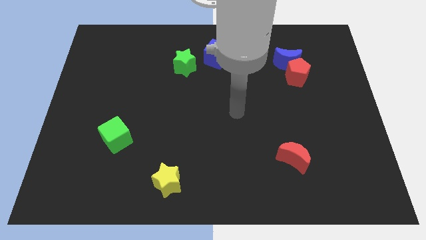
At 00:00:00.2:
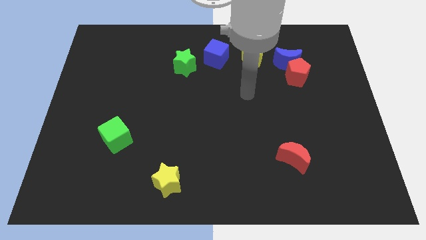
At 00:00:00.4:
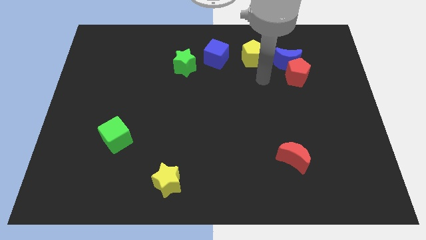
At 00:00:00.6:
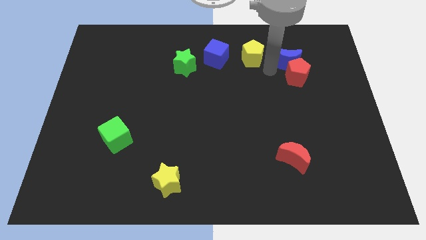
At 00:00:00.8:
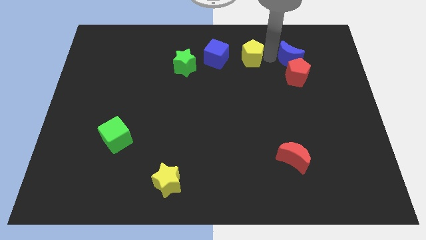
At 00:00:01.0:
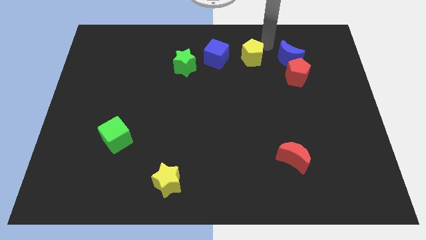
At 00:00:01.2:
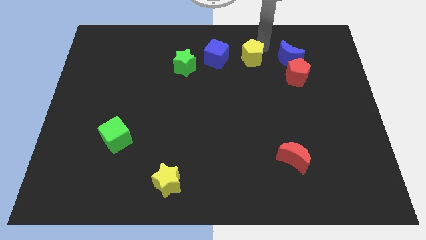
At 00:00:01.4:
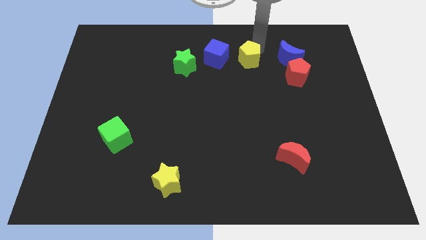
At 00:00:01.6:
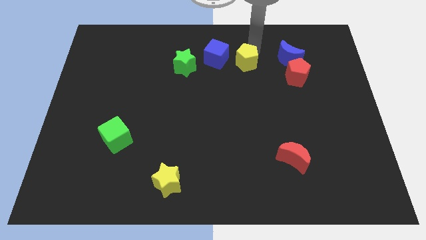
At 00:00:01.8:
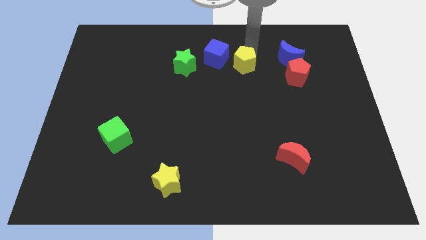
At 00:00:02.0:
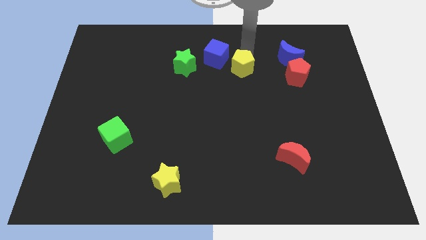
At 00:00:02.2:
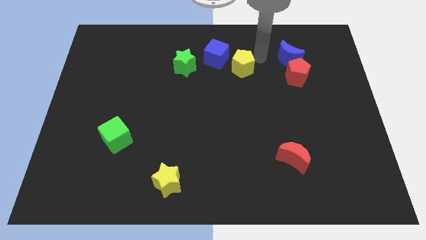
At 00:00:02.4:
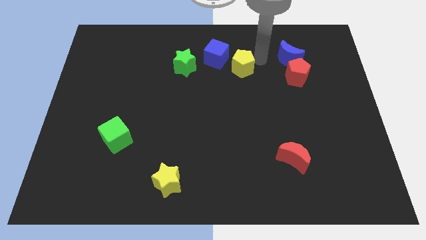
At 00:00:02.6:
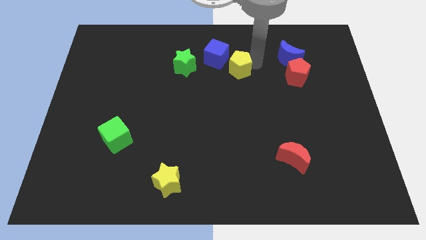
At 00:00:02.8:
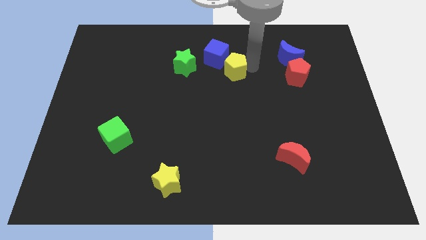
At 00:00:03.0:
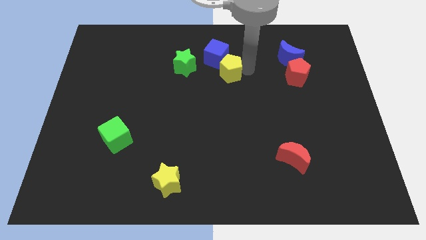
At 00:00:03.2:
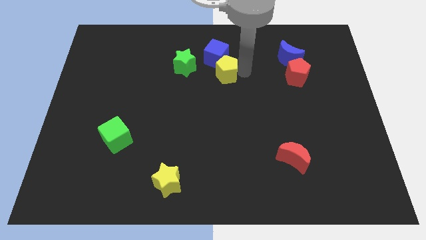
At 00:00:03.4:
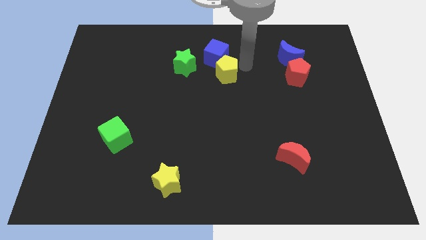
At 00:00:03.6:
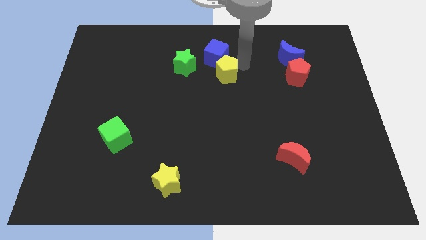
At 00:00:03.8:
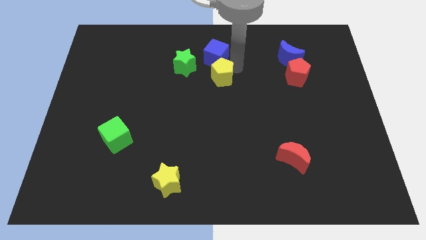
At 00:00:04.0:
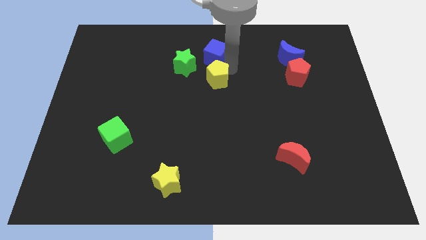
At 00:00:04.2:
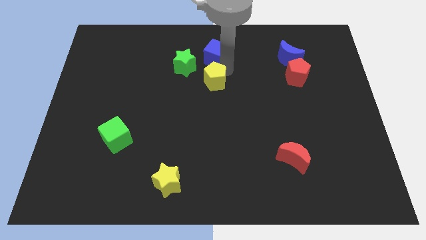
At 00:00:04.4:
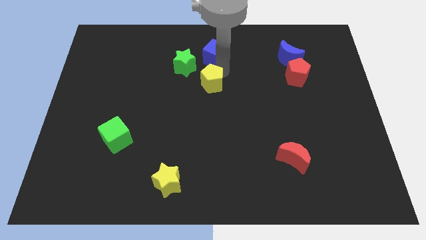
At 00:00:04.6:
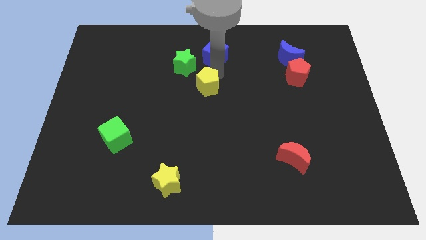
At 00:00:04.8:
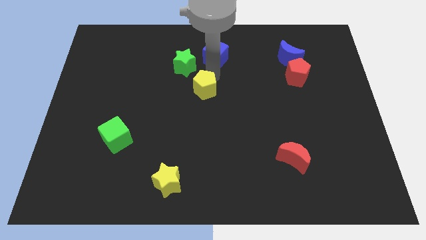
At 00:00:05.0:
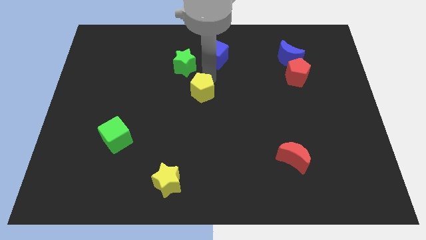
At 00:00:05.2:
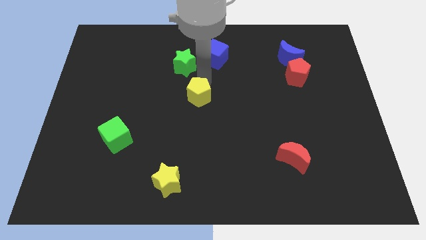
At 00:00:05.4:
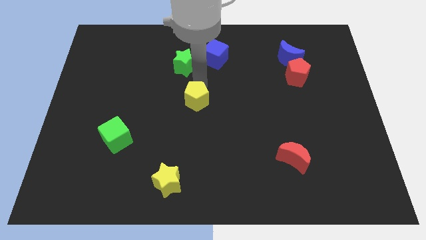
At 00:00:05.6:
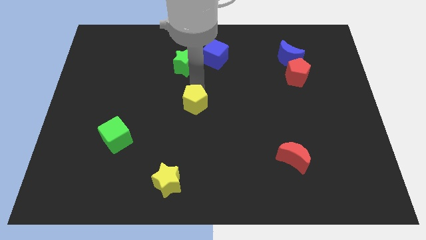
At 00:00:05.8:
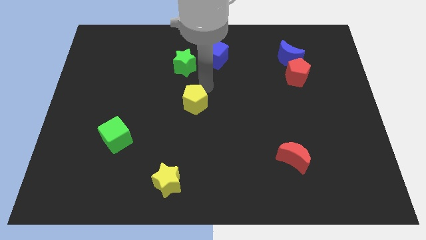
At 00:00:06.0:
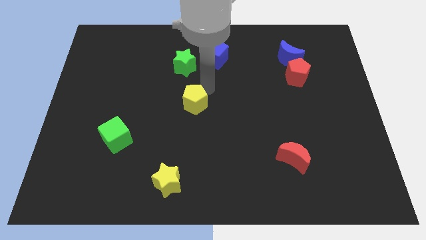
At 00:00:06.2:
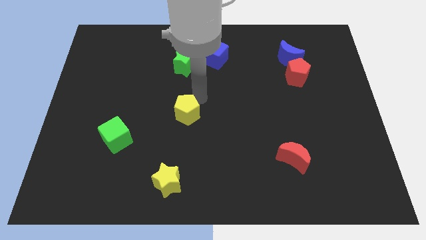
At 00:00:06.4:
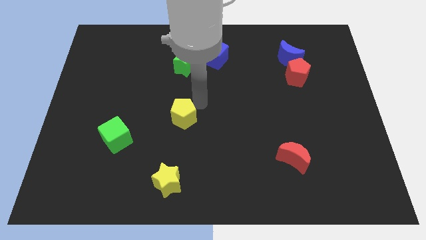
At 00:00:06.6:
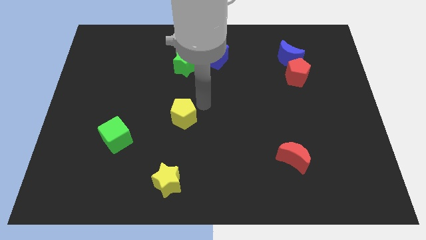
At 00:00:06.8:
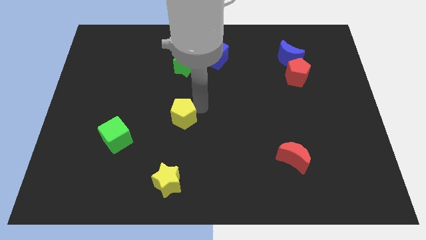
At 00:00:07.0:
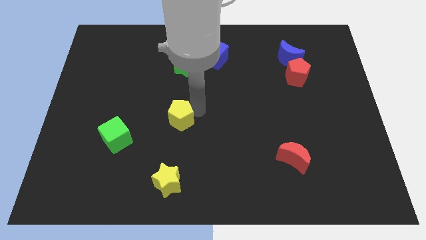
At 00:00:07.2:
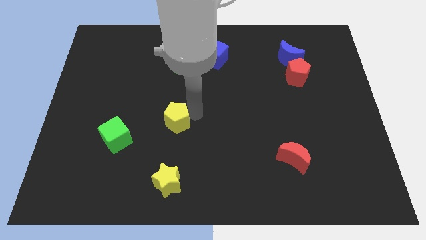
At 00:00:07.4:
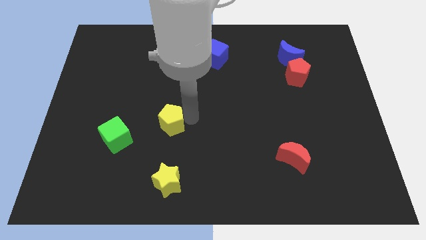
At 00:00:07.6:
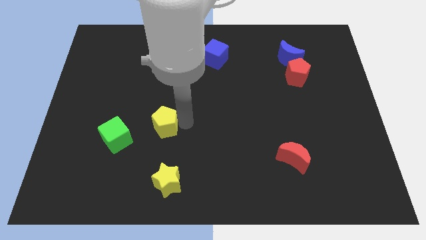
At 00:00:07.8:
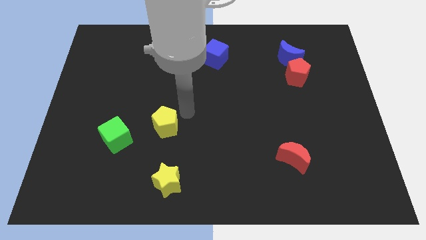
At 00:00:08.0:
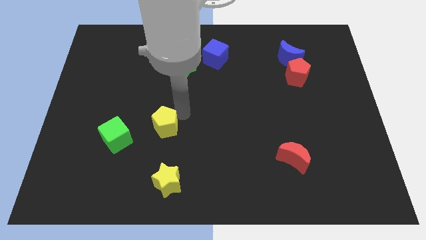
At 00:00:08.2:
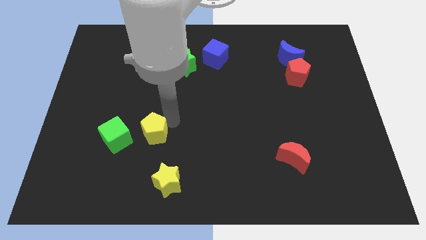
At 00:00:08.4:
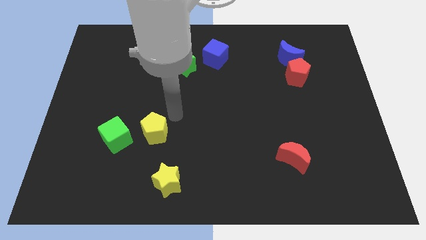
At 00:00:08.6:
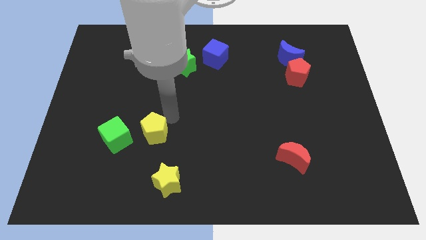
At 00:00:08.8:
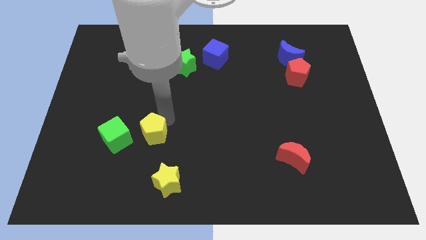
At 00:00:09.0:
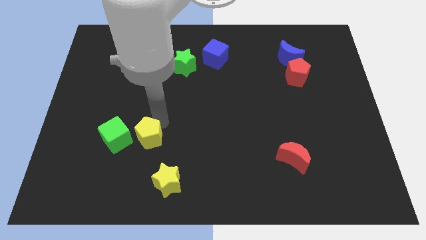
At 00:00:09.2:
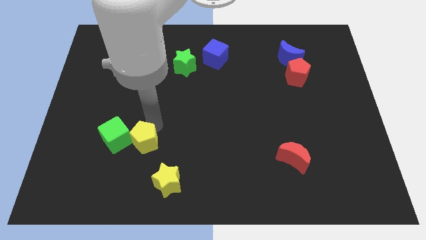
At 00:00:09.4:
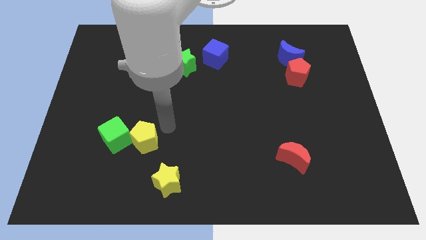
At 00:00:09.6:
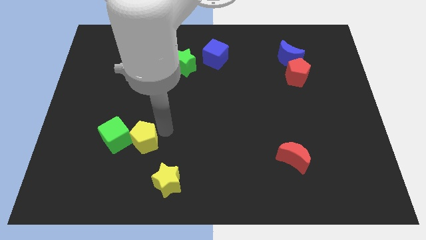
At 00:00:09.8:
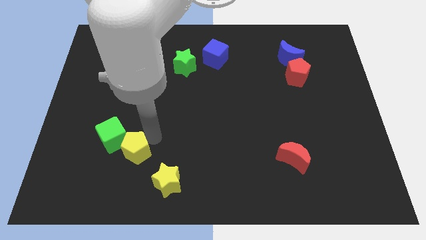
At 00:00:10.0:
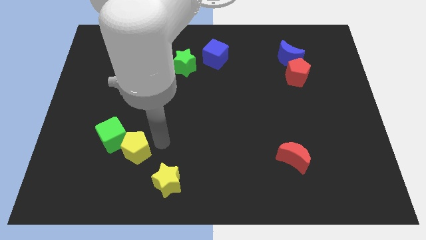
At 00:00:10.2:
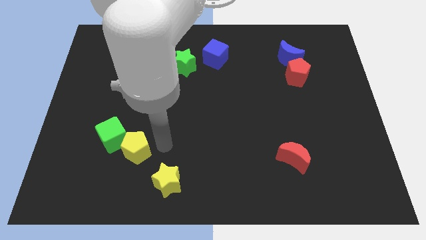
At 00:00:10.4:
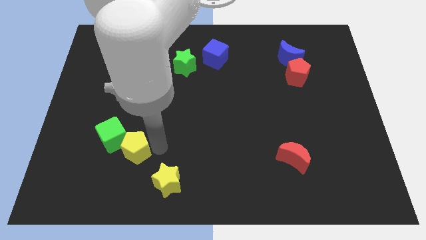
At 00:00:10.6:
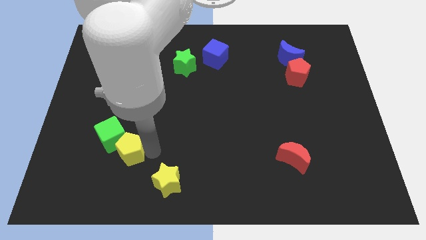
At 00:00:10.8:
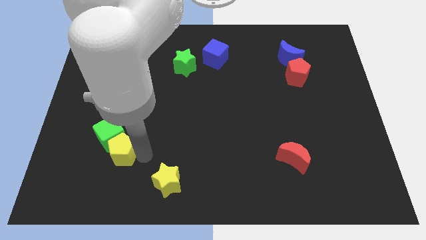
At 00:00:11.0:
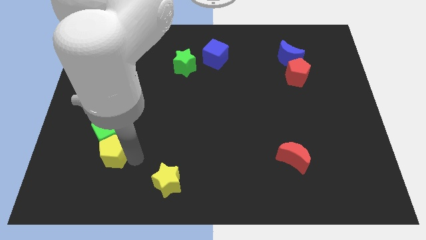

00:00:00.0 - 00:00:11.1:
slide the yellow pentagon to the bottom left side of the green cube

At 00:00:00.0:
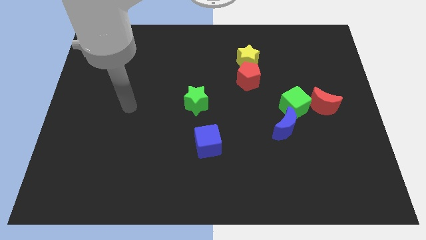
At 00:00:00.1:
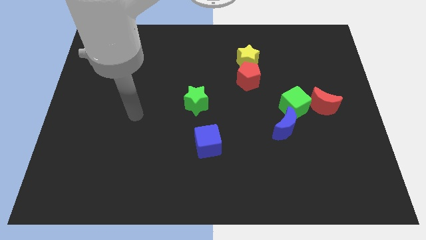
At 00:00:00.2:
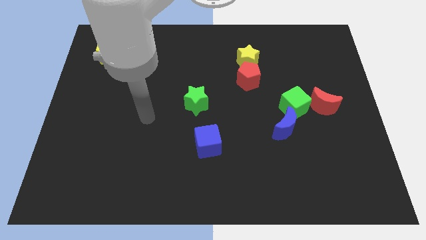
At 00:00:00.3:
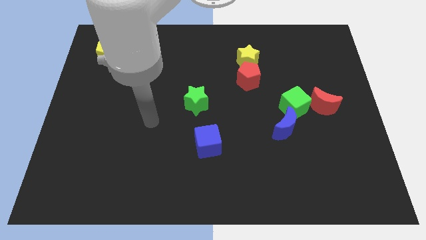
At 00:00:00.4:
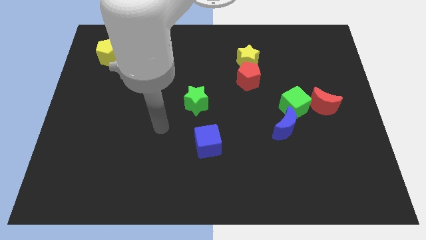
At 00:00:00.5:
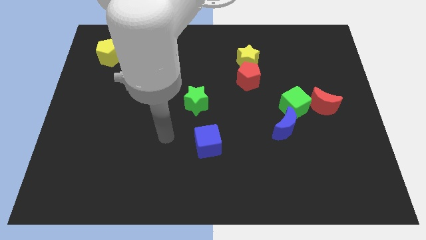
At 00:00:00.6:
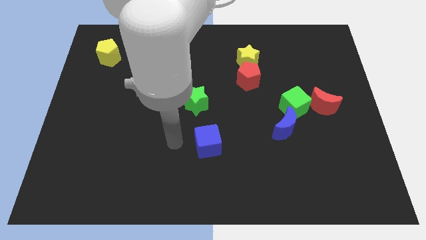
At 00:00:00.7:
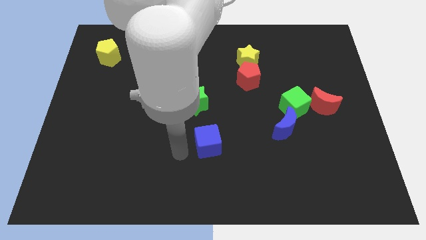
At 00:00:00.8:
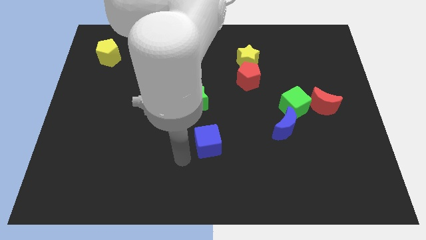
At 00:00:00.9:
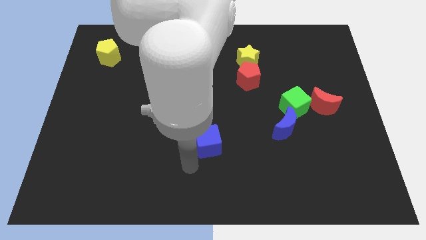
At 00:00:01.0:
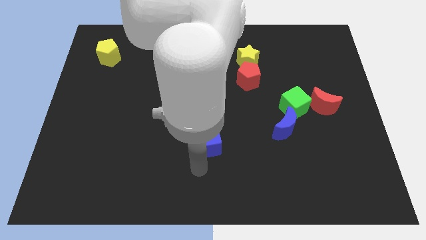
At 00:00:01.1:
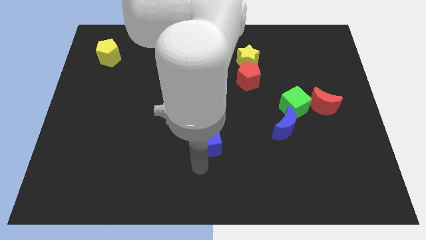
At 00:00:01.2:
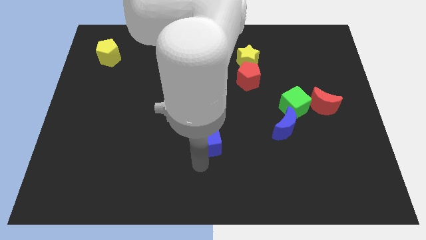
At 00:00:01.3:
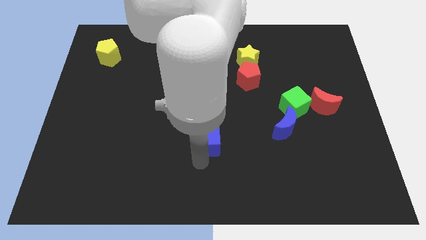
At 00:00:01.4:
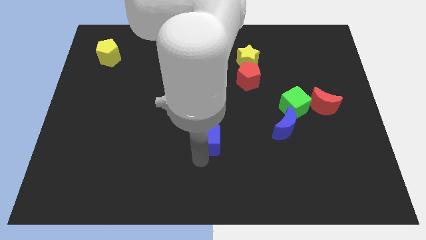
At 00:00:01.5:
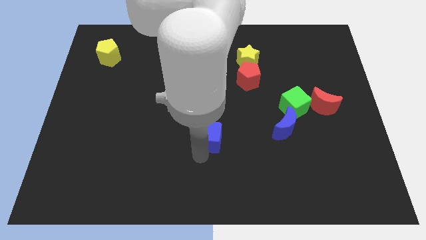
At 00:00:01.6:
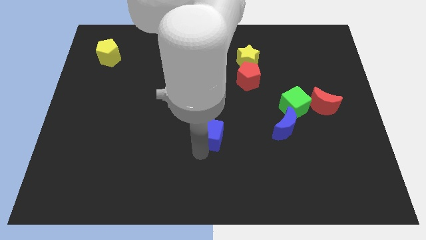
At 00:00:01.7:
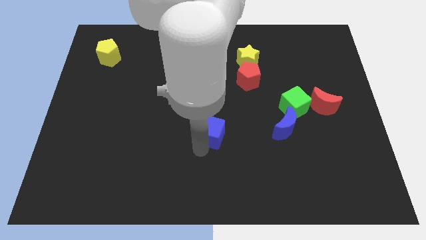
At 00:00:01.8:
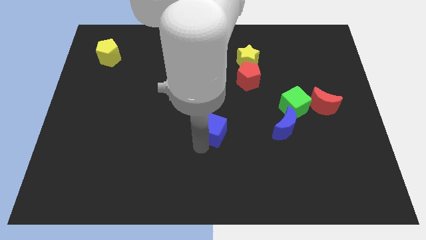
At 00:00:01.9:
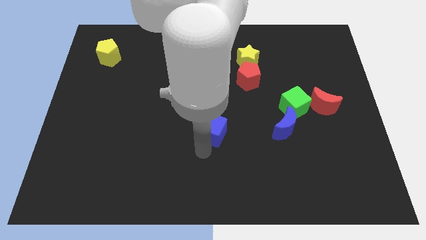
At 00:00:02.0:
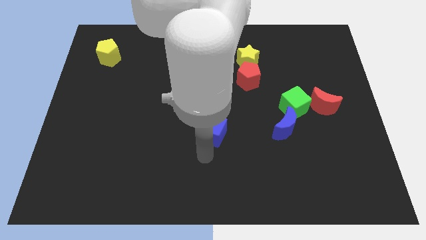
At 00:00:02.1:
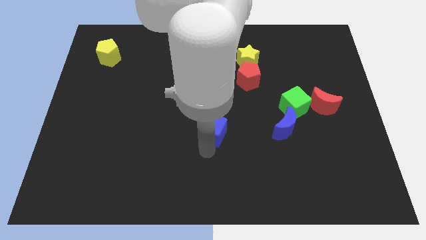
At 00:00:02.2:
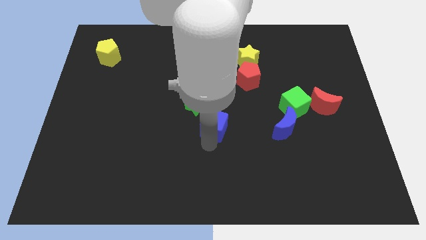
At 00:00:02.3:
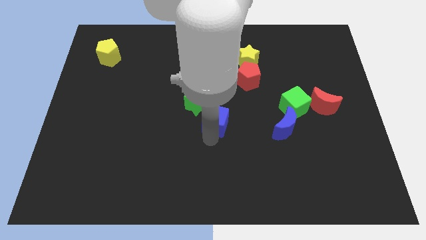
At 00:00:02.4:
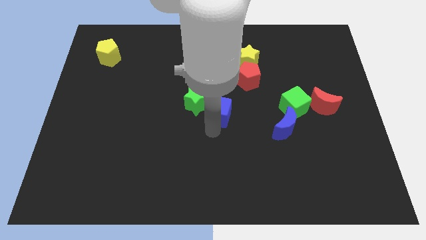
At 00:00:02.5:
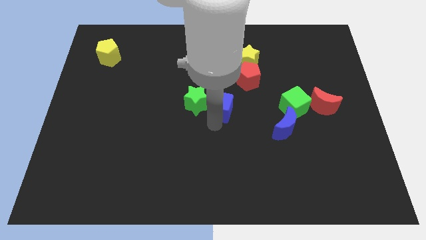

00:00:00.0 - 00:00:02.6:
move the blue cube diagonally down and to the left of the red pentagon
